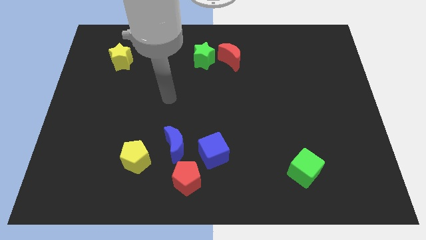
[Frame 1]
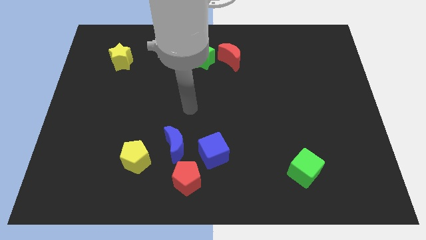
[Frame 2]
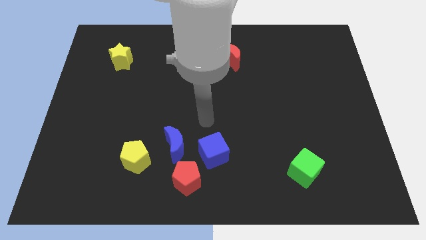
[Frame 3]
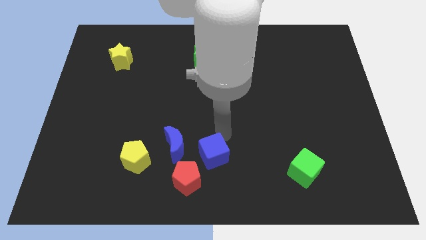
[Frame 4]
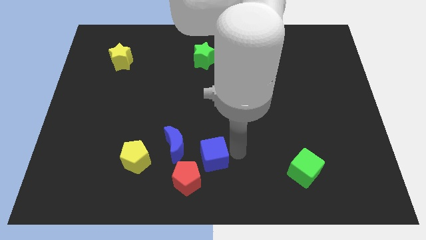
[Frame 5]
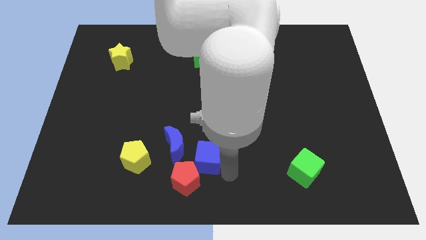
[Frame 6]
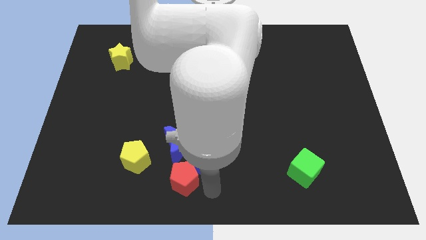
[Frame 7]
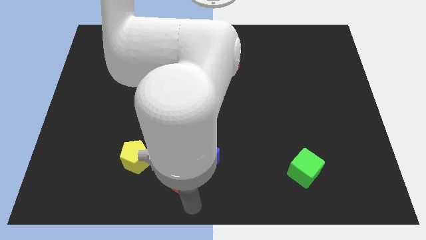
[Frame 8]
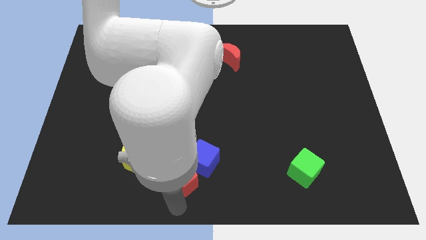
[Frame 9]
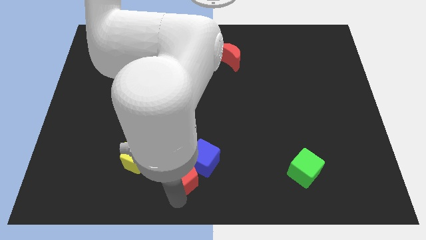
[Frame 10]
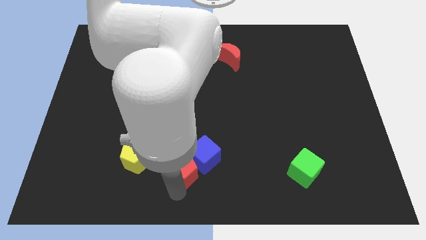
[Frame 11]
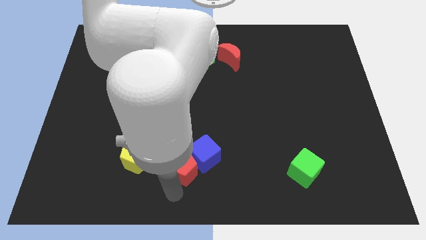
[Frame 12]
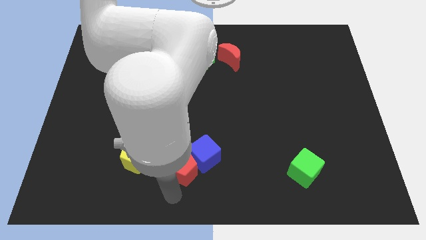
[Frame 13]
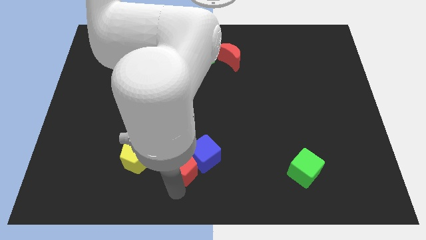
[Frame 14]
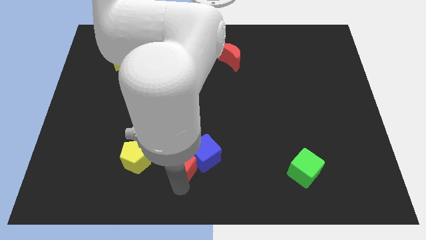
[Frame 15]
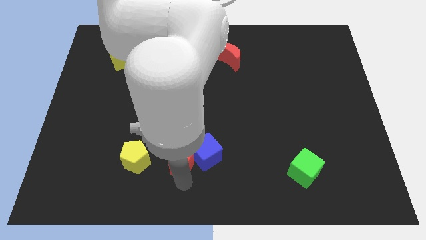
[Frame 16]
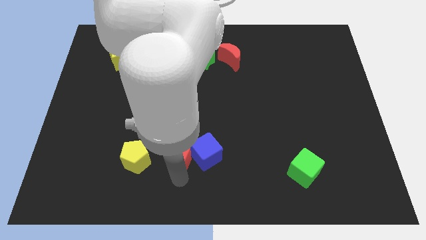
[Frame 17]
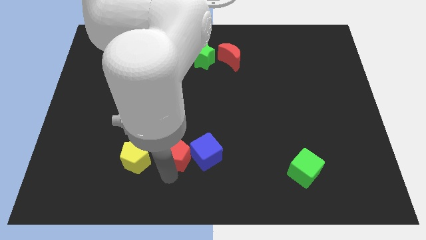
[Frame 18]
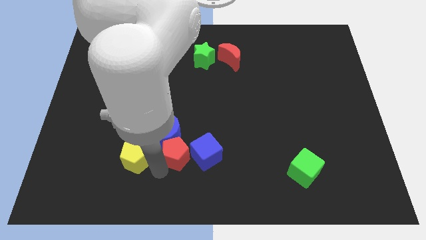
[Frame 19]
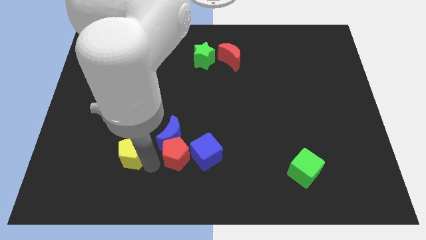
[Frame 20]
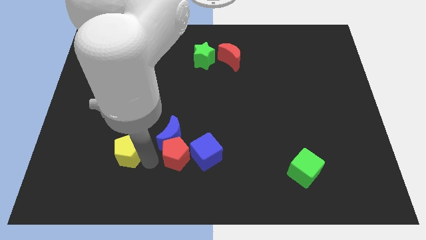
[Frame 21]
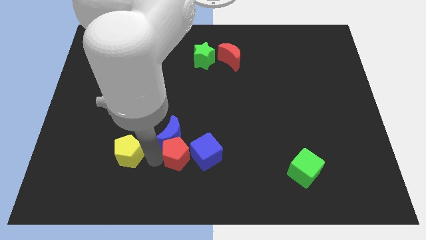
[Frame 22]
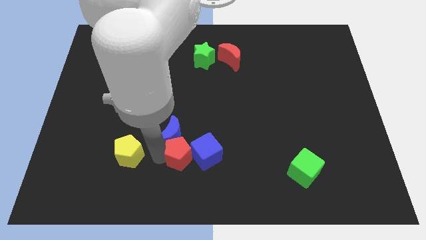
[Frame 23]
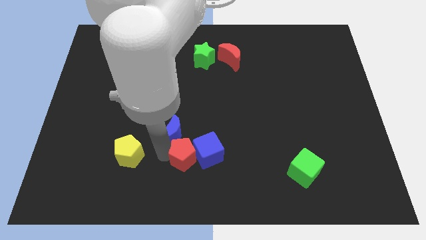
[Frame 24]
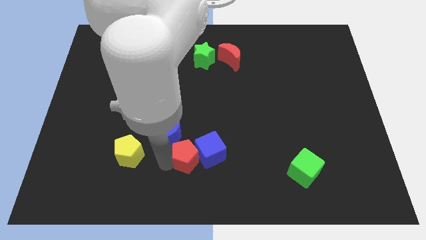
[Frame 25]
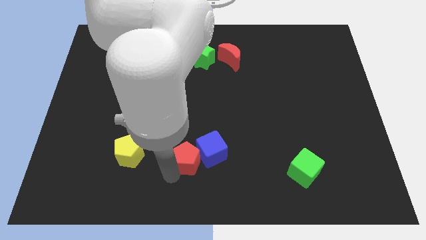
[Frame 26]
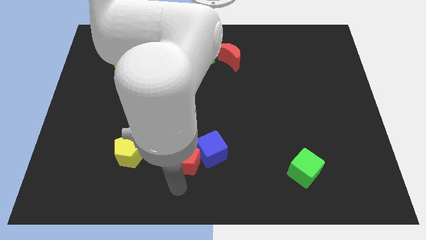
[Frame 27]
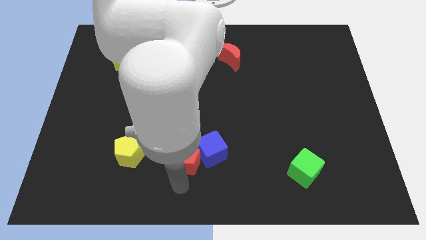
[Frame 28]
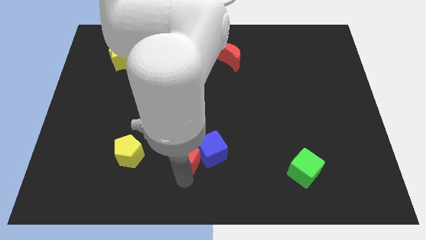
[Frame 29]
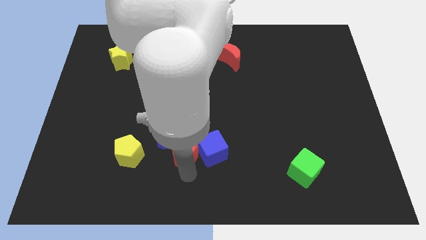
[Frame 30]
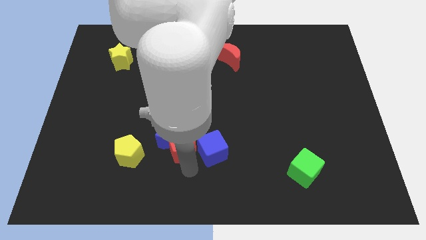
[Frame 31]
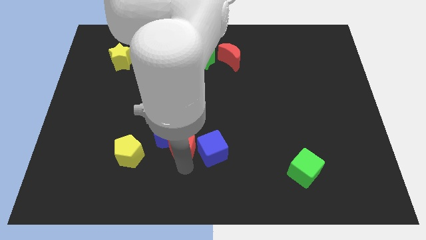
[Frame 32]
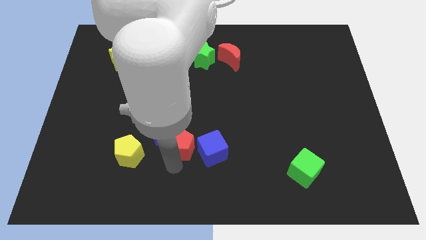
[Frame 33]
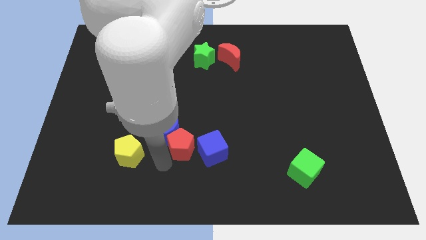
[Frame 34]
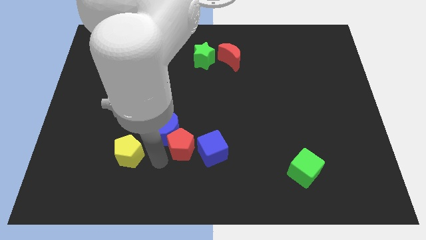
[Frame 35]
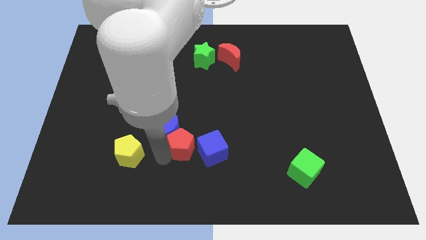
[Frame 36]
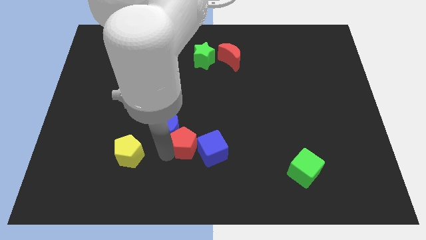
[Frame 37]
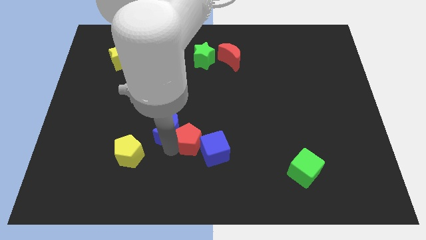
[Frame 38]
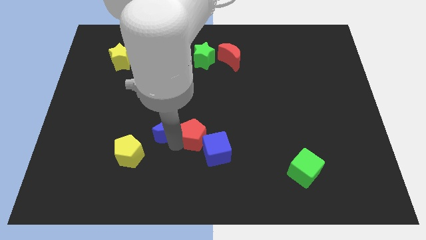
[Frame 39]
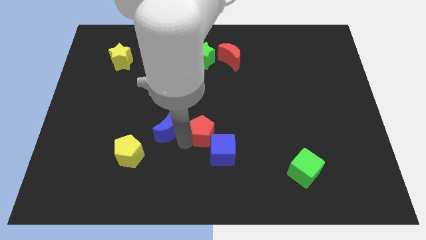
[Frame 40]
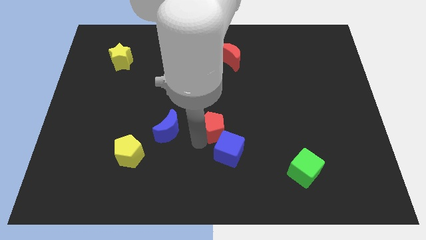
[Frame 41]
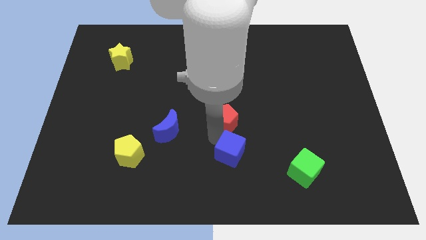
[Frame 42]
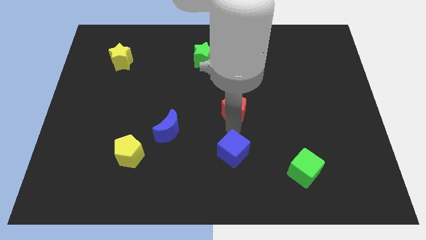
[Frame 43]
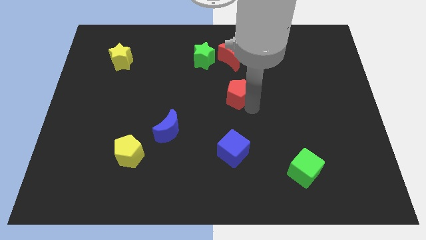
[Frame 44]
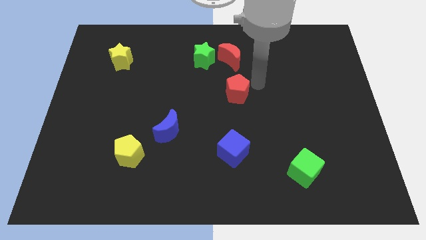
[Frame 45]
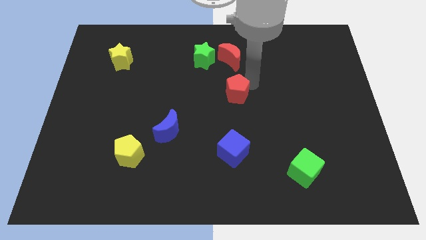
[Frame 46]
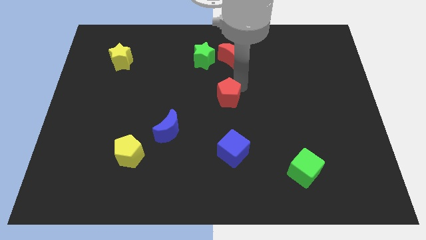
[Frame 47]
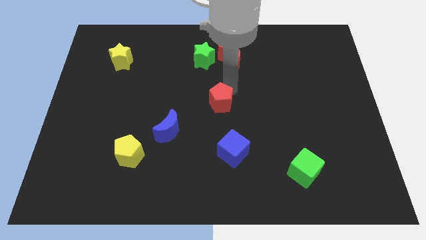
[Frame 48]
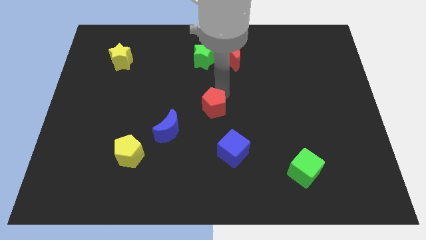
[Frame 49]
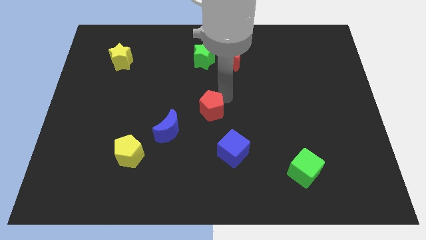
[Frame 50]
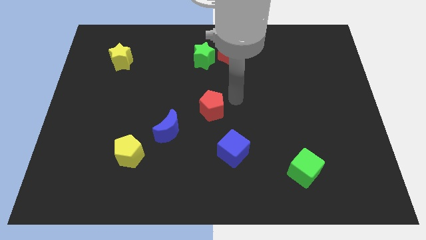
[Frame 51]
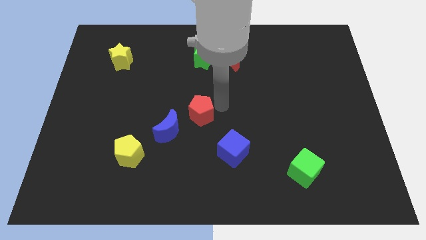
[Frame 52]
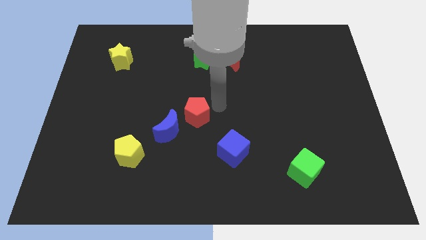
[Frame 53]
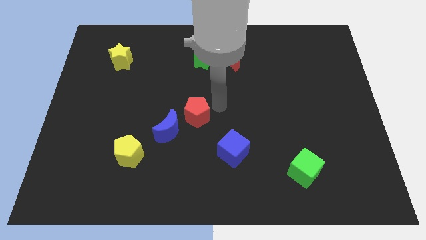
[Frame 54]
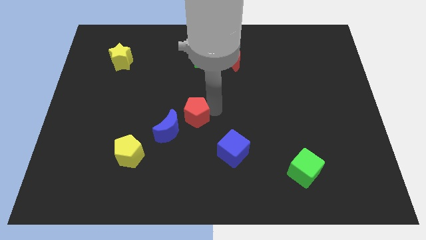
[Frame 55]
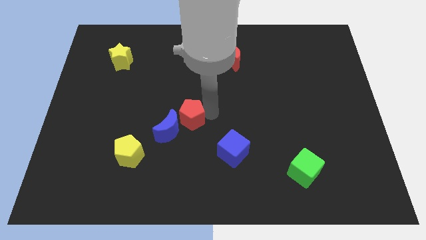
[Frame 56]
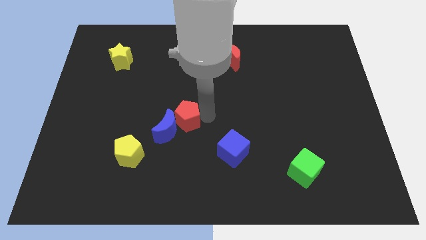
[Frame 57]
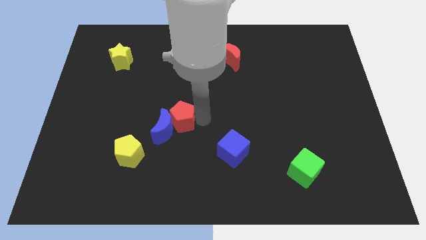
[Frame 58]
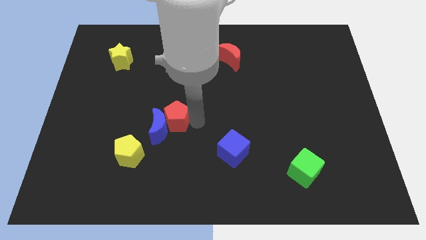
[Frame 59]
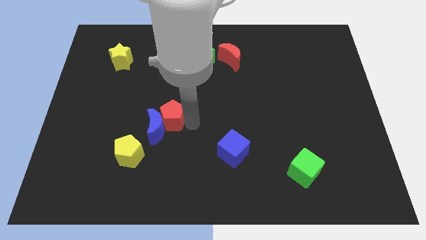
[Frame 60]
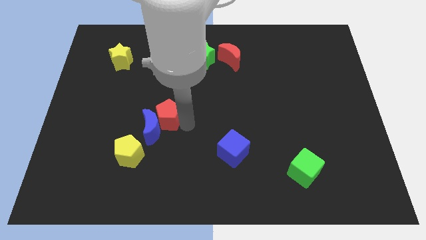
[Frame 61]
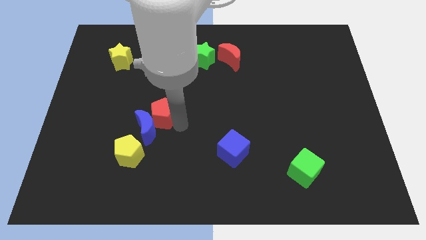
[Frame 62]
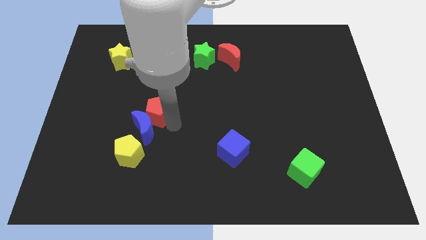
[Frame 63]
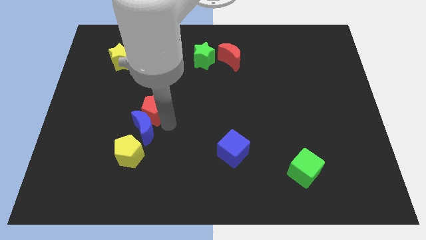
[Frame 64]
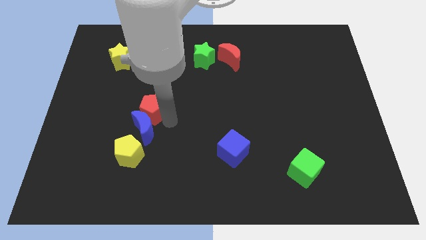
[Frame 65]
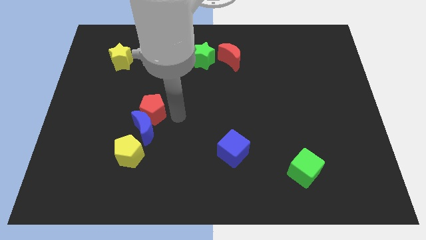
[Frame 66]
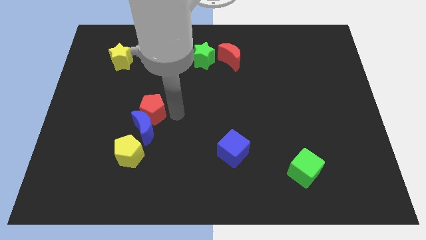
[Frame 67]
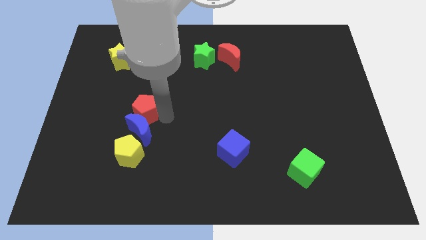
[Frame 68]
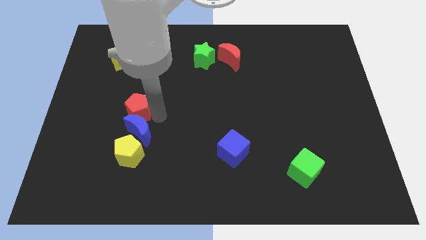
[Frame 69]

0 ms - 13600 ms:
push the red pentagon diagonally up and to the left

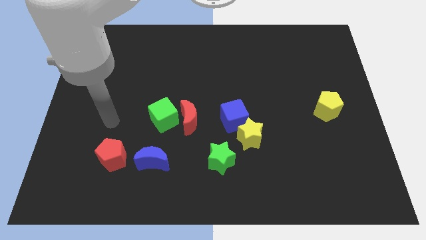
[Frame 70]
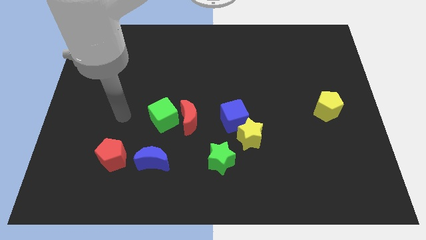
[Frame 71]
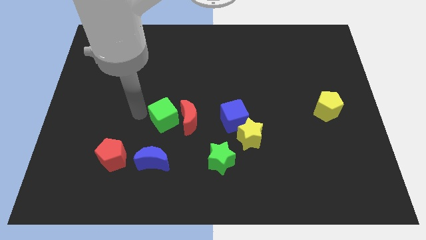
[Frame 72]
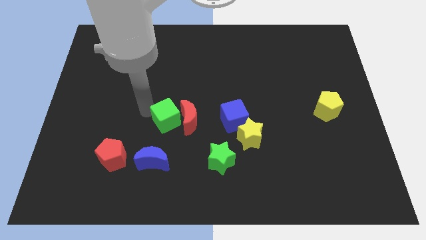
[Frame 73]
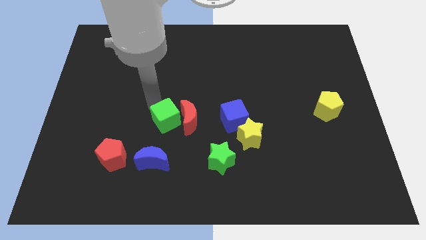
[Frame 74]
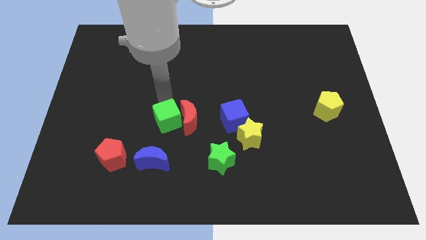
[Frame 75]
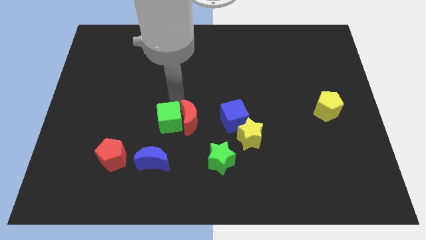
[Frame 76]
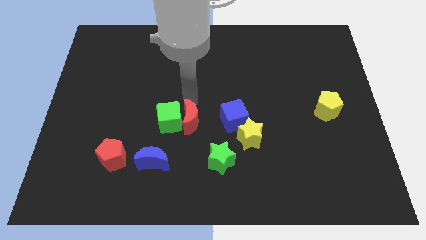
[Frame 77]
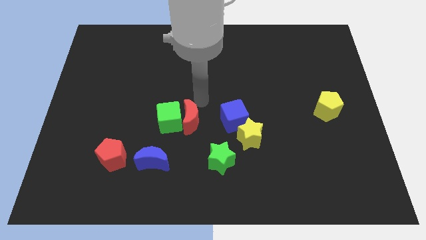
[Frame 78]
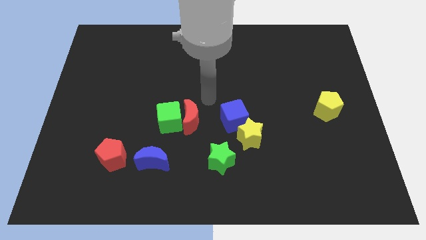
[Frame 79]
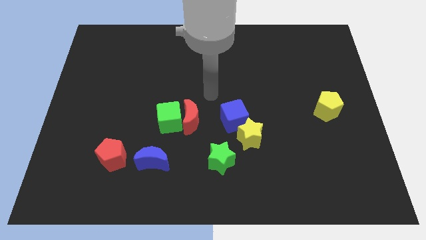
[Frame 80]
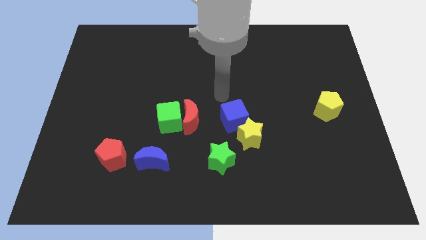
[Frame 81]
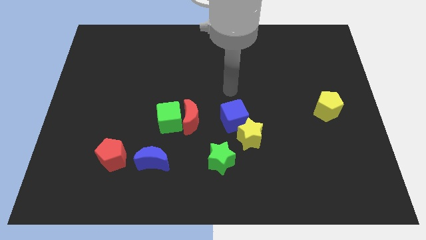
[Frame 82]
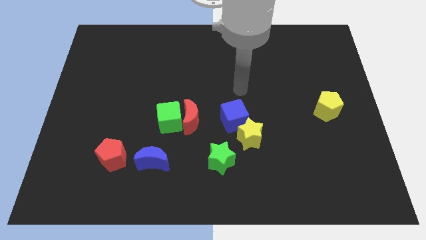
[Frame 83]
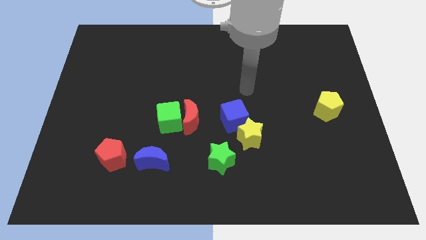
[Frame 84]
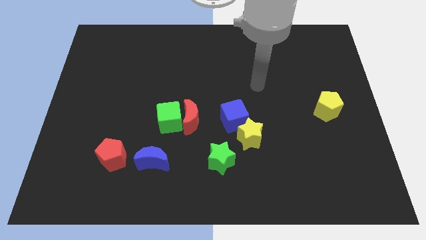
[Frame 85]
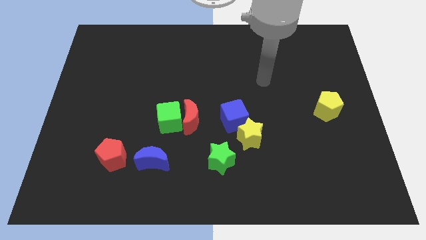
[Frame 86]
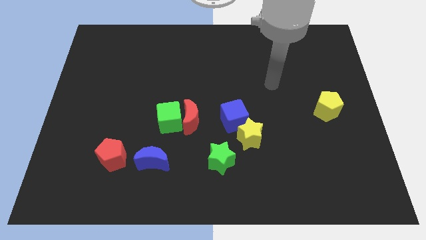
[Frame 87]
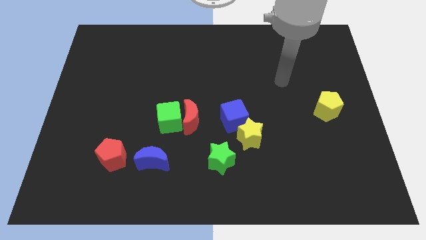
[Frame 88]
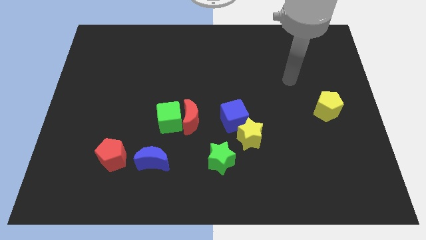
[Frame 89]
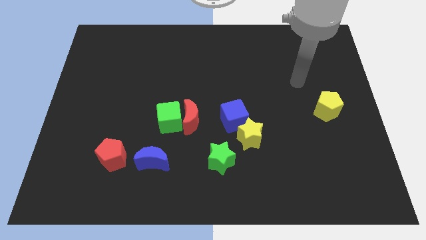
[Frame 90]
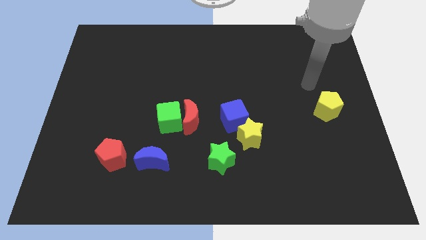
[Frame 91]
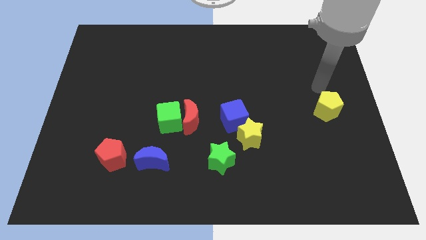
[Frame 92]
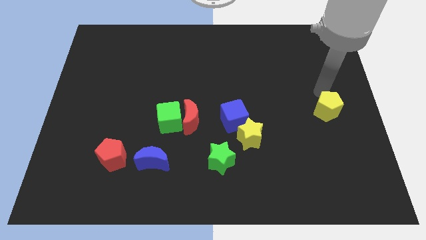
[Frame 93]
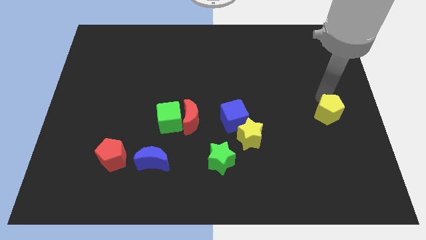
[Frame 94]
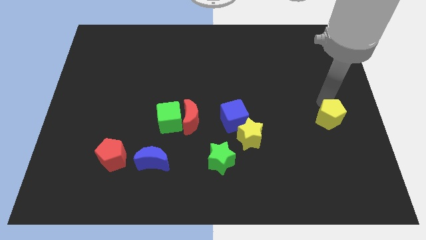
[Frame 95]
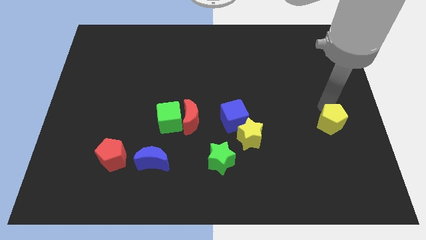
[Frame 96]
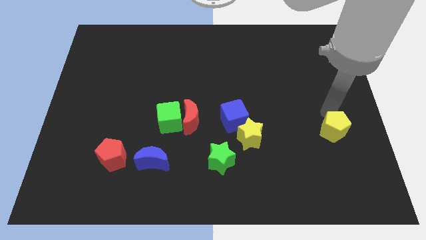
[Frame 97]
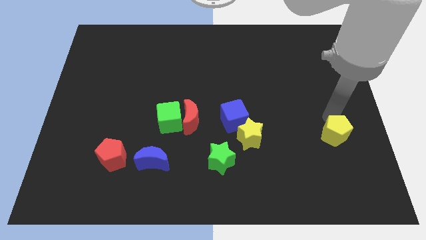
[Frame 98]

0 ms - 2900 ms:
slide the yellow pentagon down a bit
